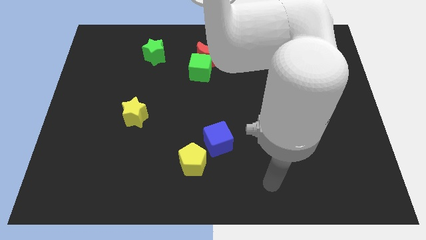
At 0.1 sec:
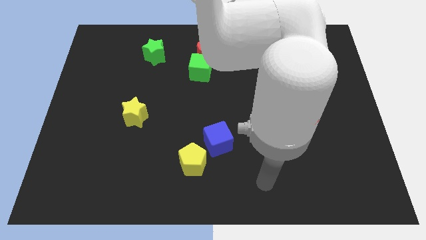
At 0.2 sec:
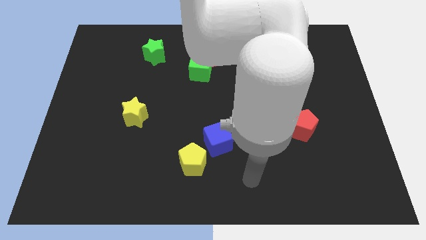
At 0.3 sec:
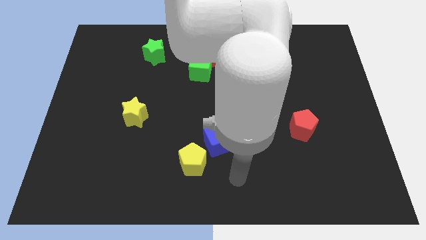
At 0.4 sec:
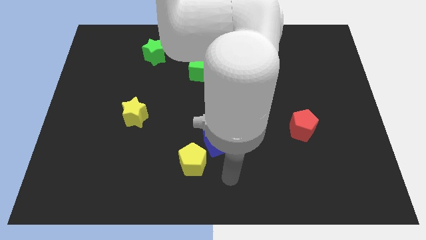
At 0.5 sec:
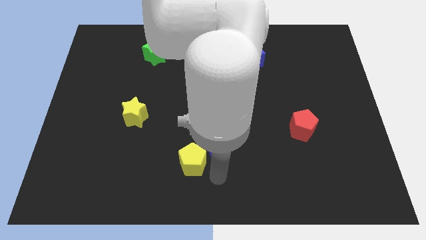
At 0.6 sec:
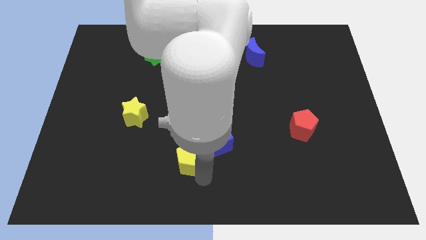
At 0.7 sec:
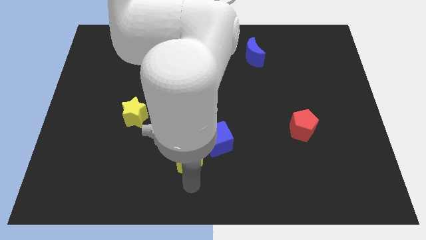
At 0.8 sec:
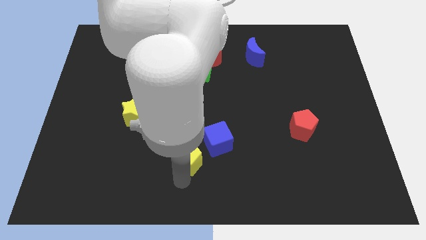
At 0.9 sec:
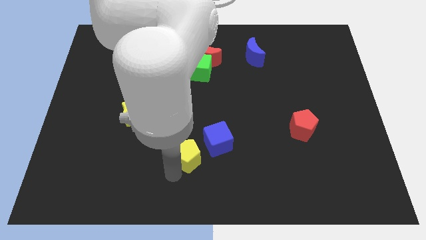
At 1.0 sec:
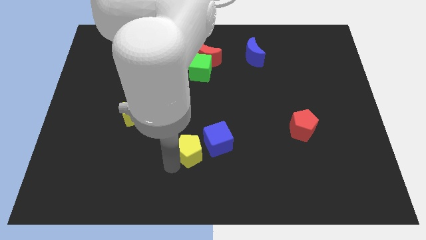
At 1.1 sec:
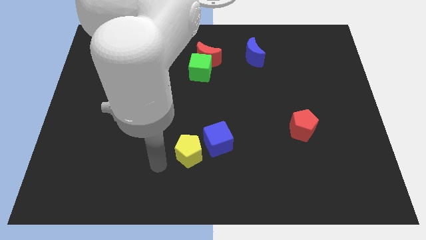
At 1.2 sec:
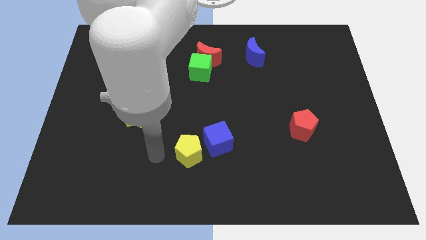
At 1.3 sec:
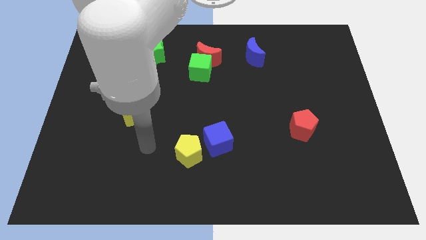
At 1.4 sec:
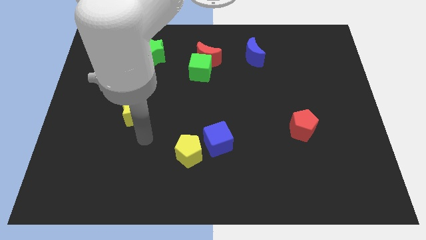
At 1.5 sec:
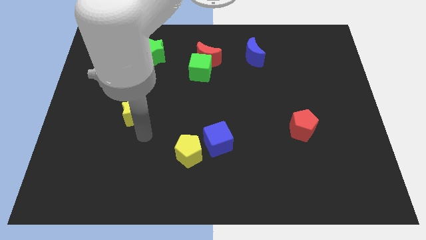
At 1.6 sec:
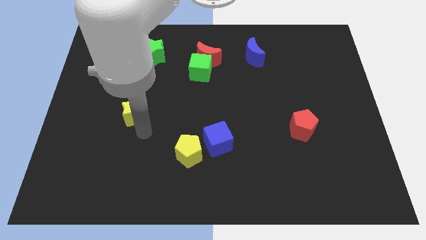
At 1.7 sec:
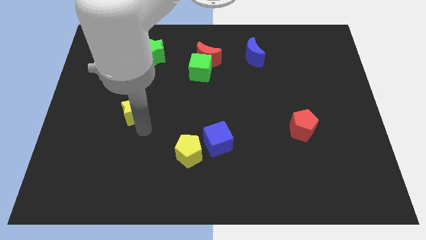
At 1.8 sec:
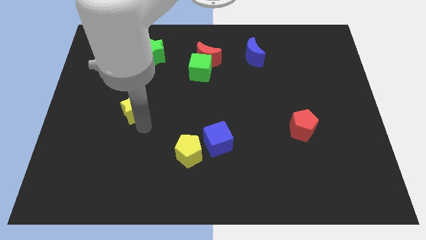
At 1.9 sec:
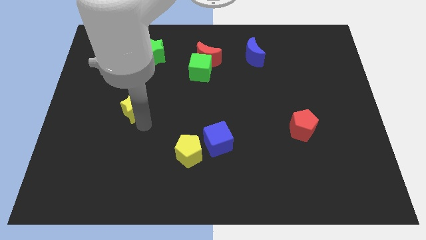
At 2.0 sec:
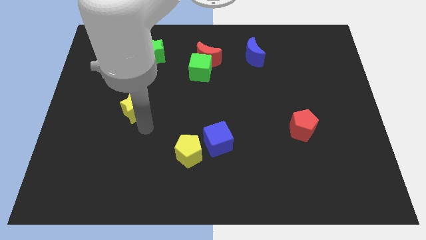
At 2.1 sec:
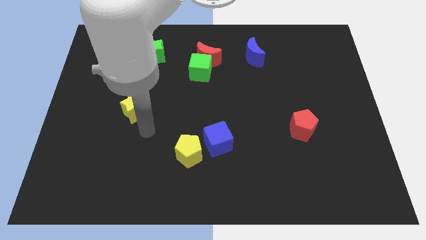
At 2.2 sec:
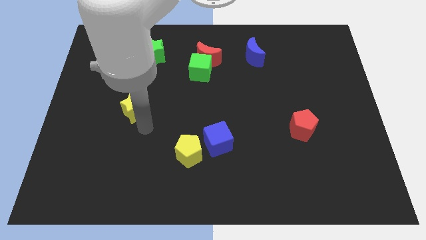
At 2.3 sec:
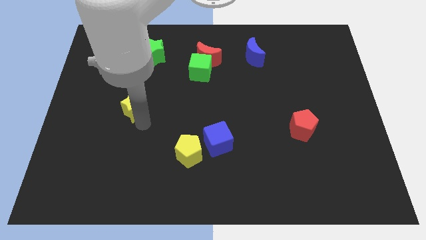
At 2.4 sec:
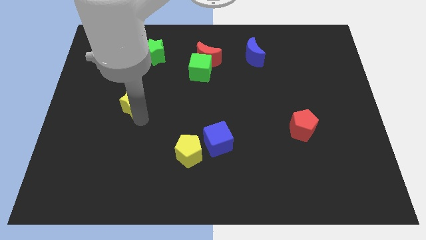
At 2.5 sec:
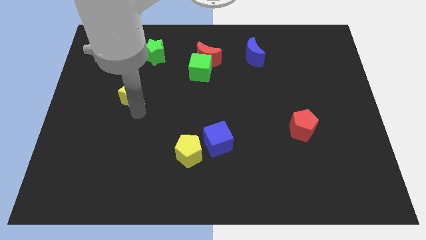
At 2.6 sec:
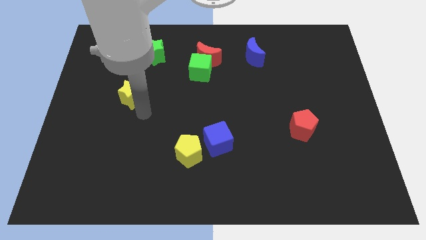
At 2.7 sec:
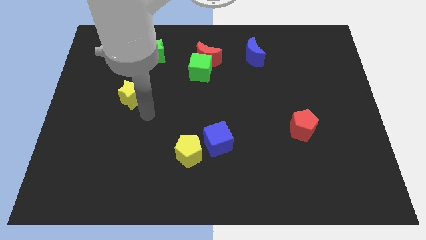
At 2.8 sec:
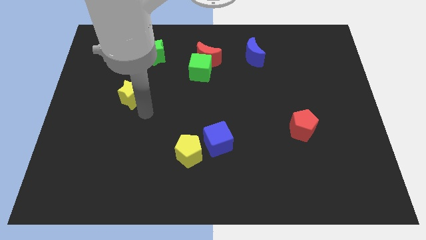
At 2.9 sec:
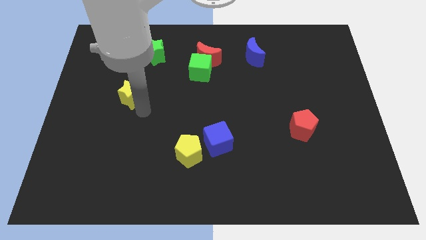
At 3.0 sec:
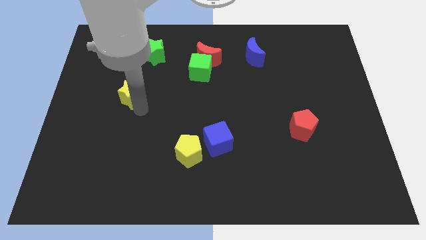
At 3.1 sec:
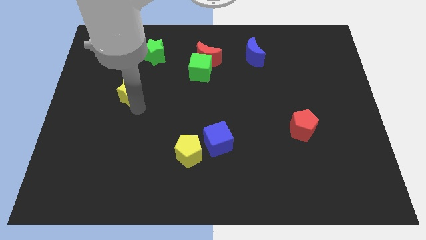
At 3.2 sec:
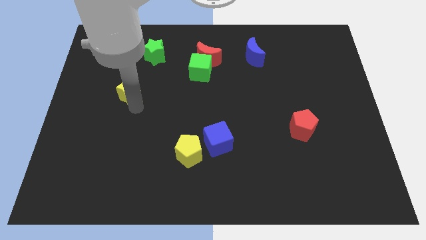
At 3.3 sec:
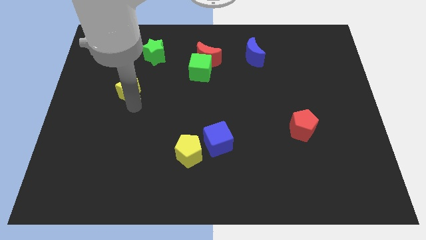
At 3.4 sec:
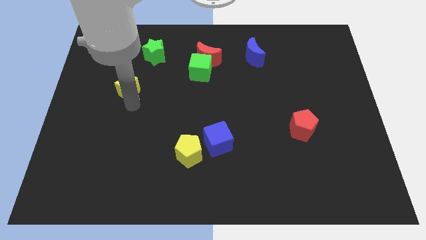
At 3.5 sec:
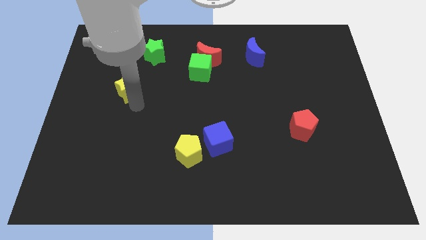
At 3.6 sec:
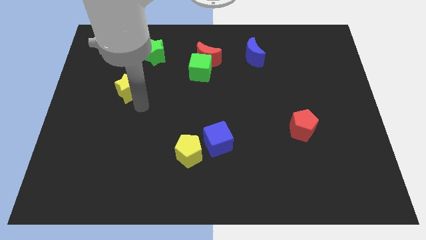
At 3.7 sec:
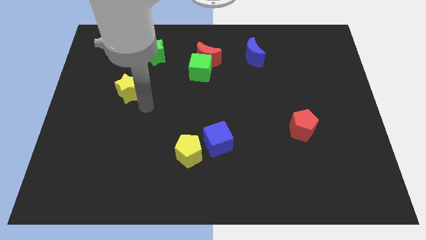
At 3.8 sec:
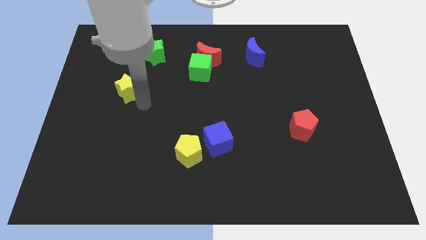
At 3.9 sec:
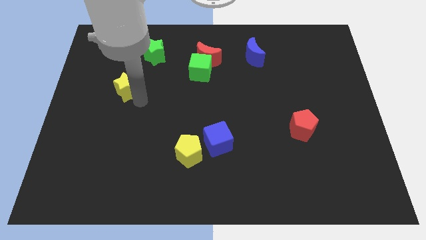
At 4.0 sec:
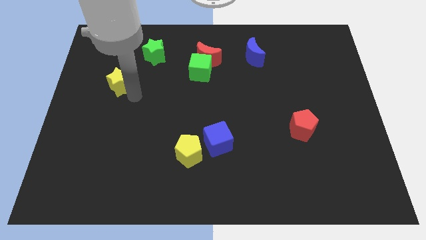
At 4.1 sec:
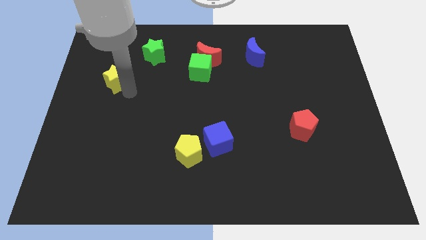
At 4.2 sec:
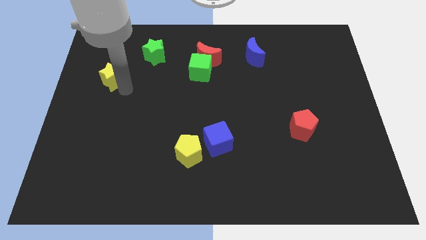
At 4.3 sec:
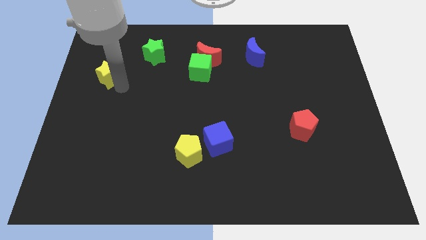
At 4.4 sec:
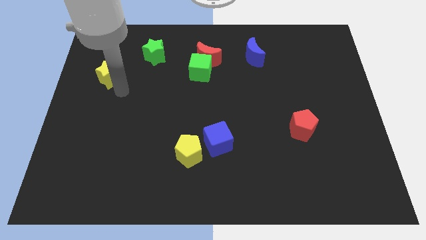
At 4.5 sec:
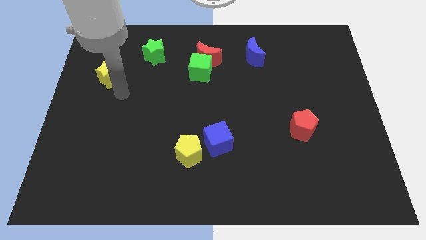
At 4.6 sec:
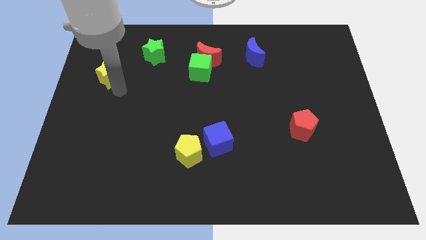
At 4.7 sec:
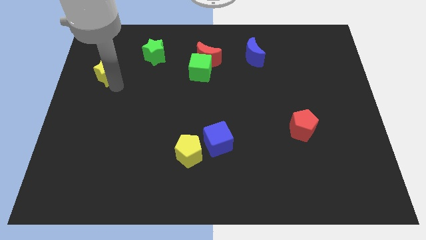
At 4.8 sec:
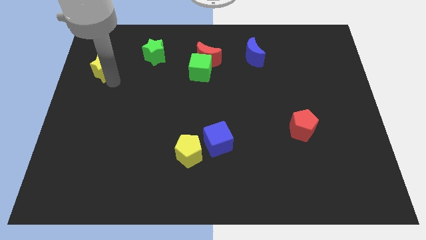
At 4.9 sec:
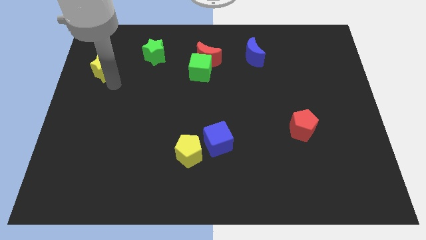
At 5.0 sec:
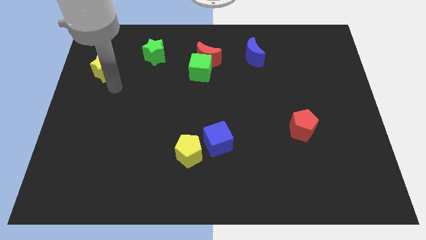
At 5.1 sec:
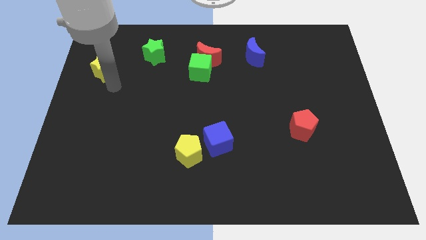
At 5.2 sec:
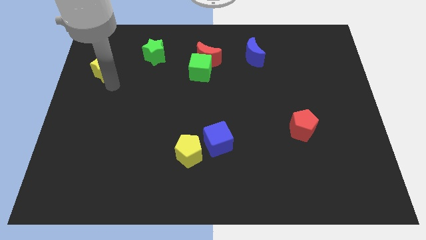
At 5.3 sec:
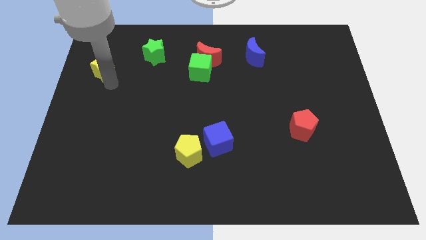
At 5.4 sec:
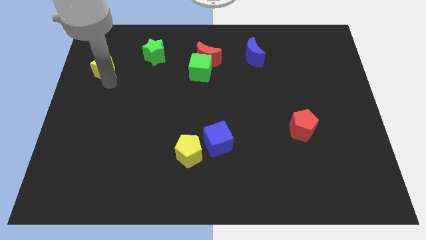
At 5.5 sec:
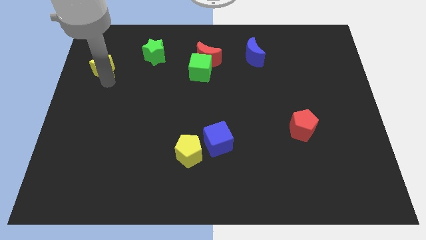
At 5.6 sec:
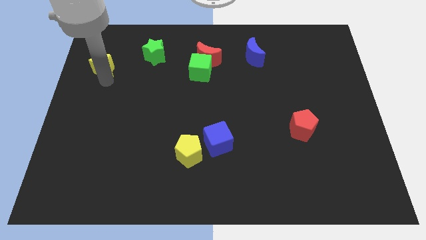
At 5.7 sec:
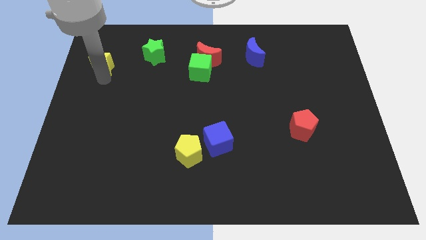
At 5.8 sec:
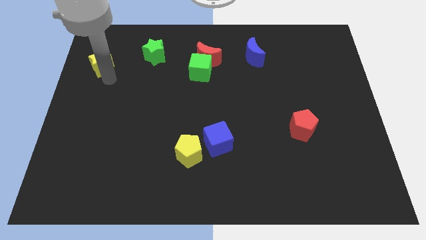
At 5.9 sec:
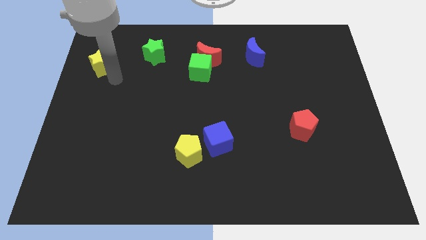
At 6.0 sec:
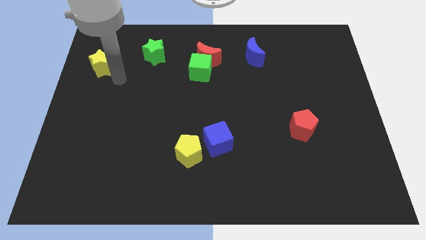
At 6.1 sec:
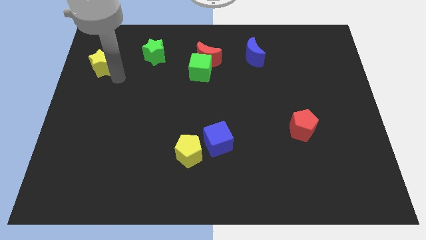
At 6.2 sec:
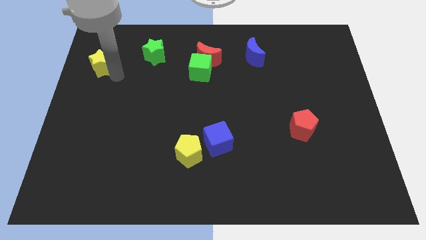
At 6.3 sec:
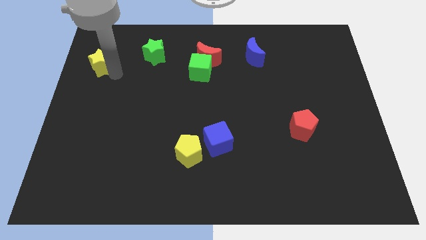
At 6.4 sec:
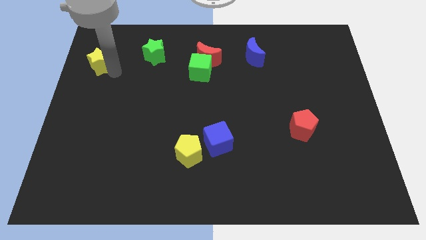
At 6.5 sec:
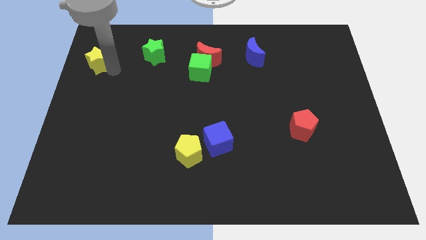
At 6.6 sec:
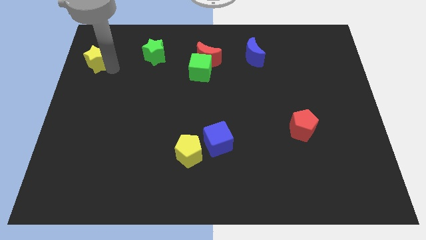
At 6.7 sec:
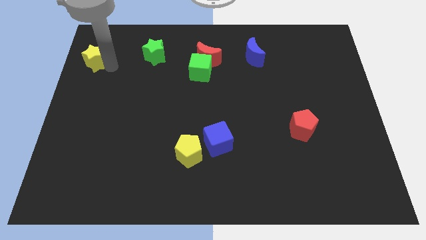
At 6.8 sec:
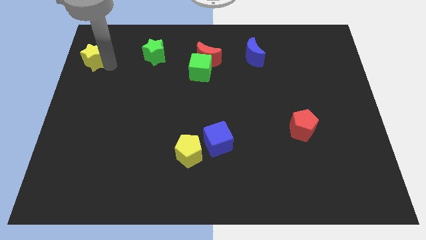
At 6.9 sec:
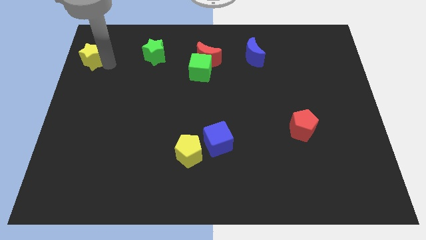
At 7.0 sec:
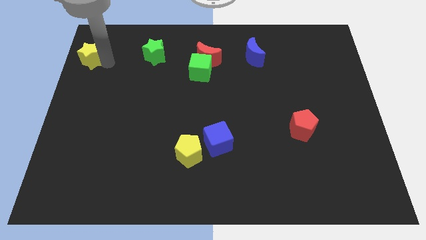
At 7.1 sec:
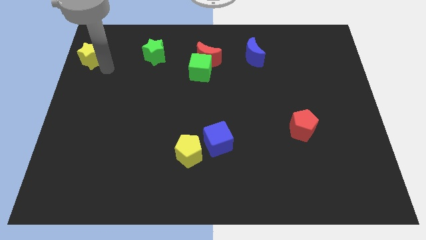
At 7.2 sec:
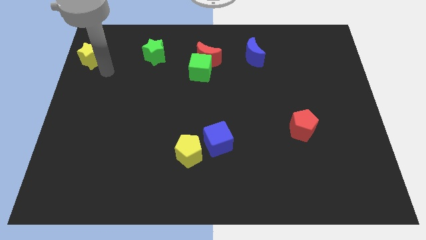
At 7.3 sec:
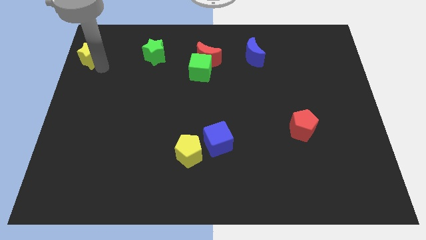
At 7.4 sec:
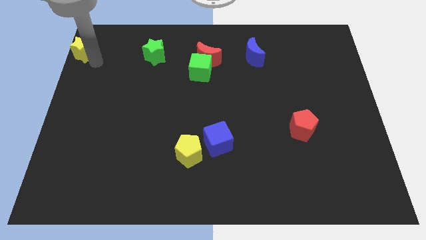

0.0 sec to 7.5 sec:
push the yellow star to the top left
